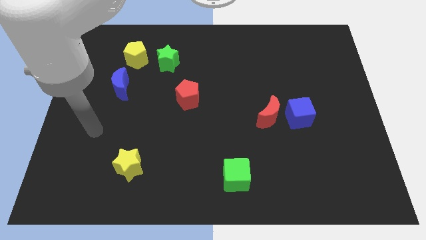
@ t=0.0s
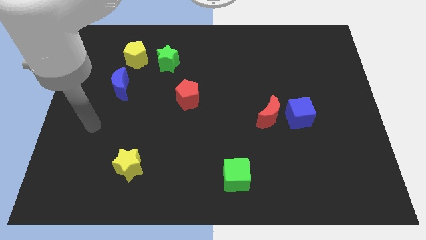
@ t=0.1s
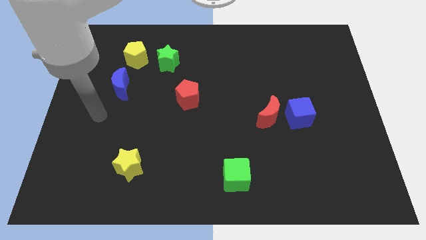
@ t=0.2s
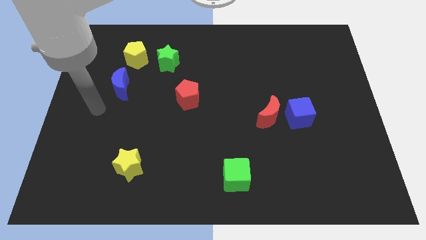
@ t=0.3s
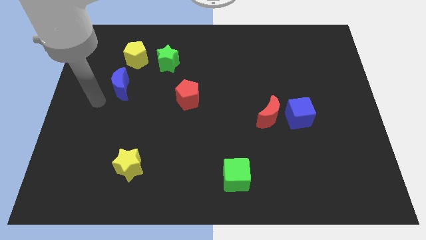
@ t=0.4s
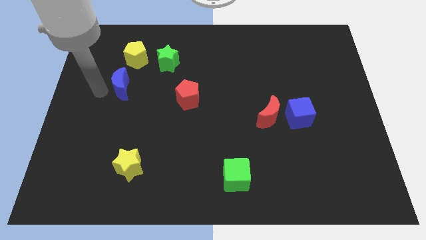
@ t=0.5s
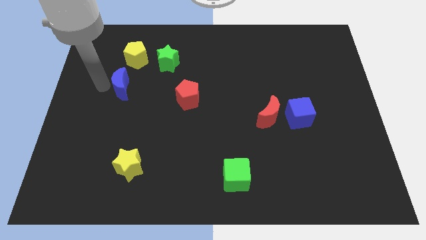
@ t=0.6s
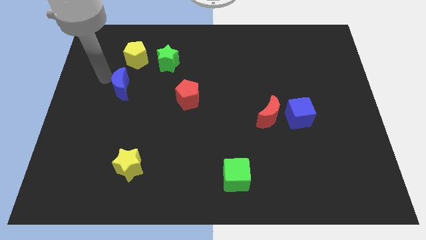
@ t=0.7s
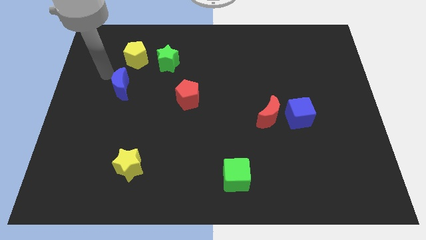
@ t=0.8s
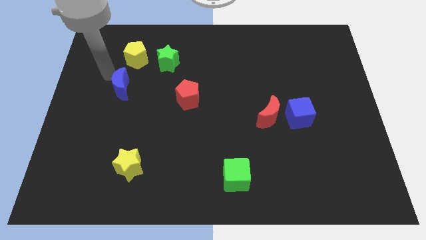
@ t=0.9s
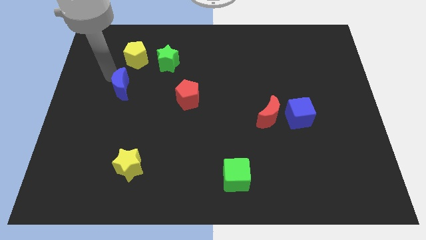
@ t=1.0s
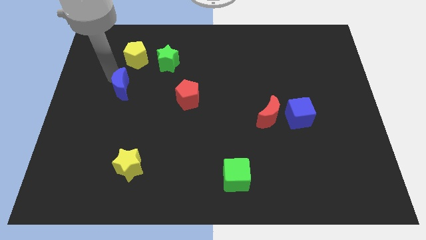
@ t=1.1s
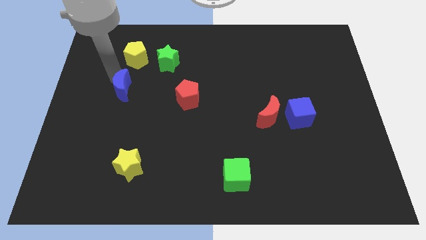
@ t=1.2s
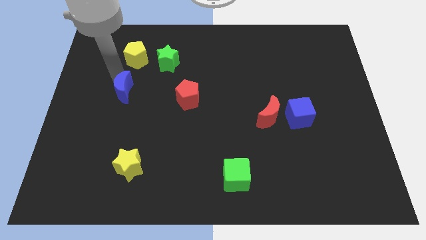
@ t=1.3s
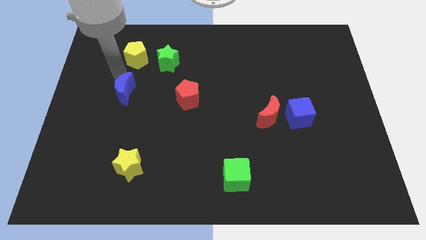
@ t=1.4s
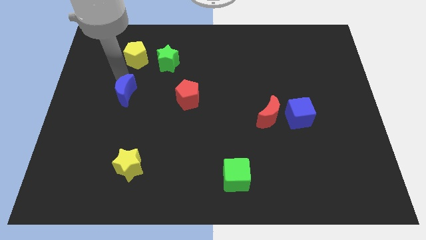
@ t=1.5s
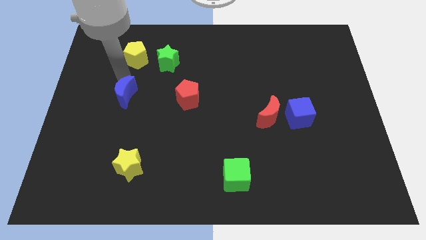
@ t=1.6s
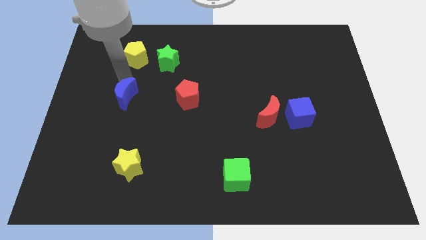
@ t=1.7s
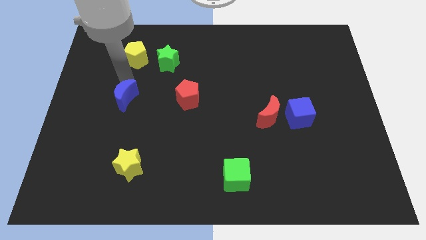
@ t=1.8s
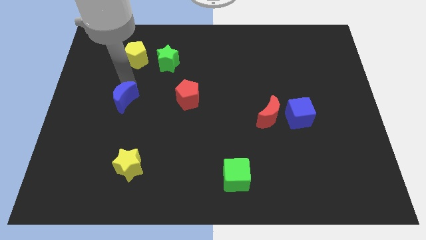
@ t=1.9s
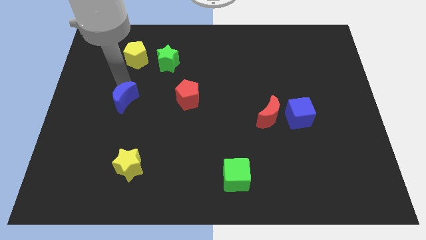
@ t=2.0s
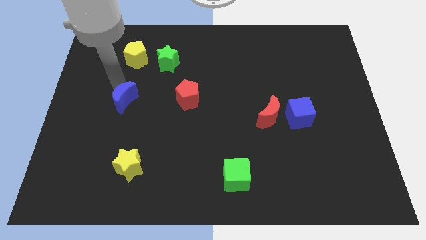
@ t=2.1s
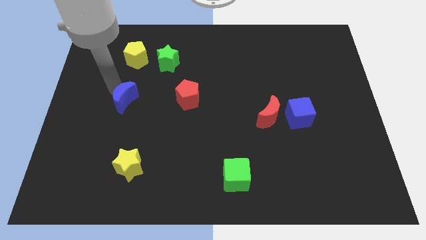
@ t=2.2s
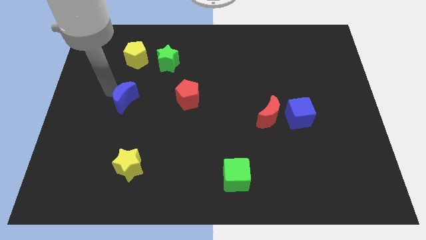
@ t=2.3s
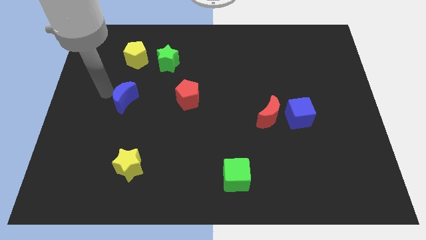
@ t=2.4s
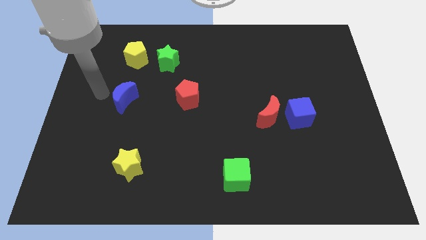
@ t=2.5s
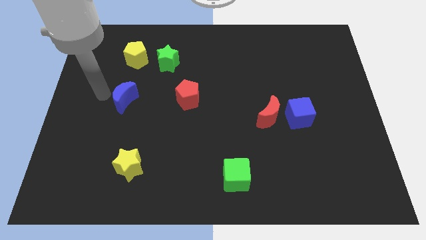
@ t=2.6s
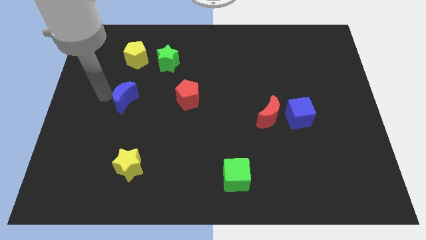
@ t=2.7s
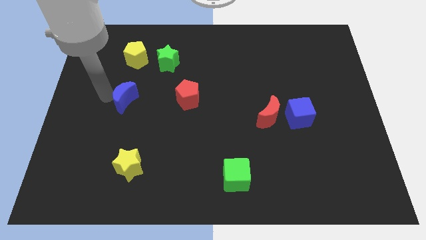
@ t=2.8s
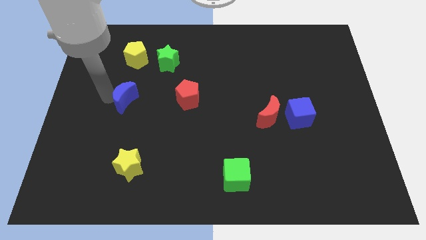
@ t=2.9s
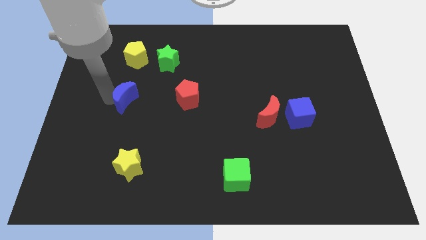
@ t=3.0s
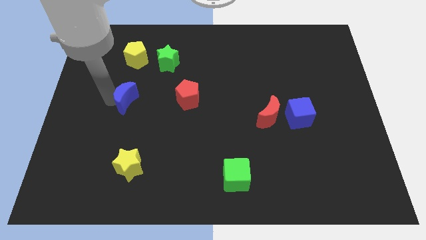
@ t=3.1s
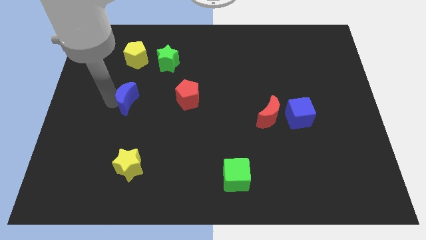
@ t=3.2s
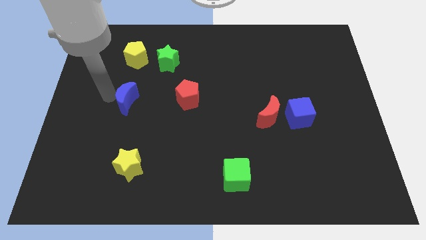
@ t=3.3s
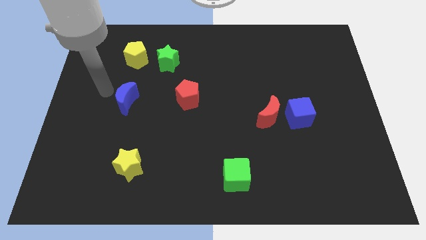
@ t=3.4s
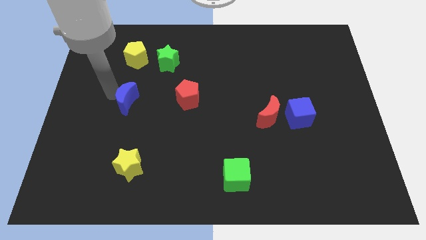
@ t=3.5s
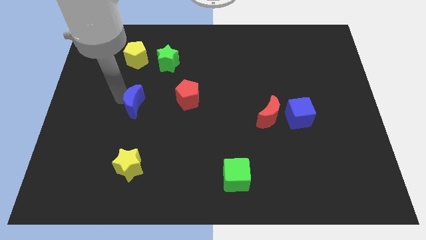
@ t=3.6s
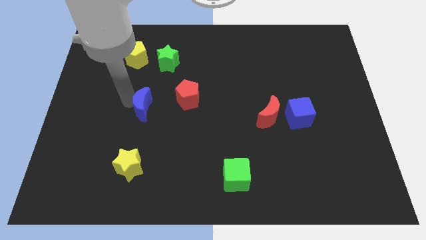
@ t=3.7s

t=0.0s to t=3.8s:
push the blue moon downwards and right a little bit

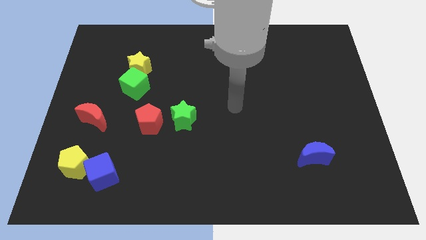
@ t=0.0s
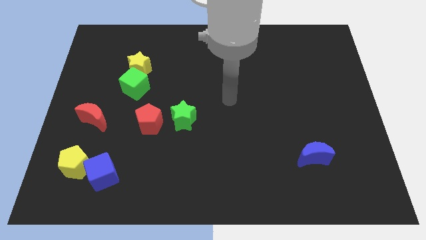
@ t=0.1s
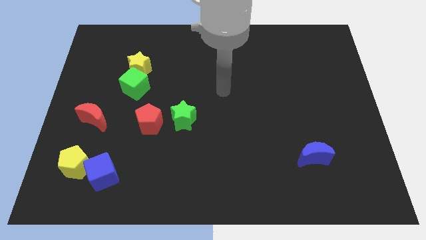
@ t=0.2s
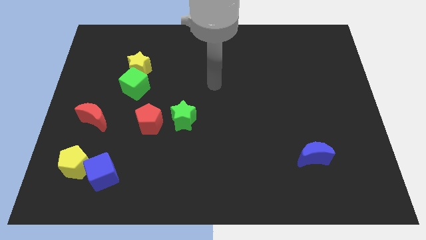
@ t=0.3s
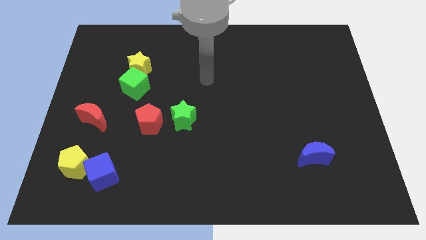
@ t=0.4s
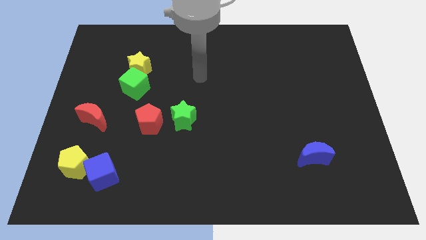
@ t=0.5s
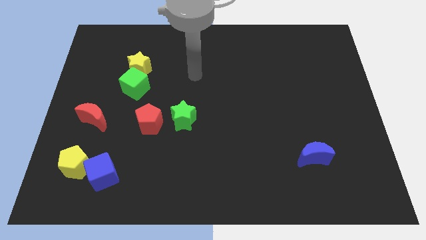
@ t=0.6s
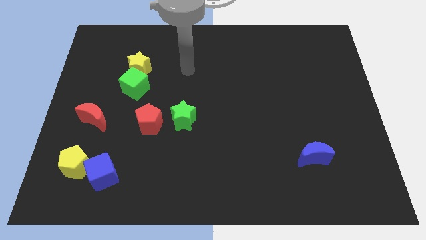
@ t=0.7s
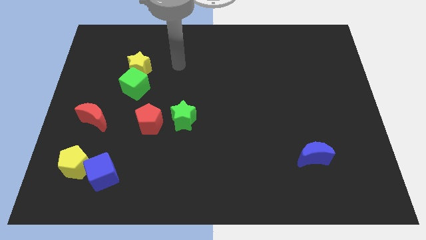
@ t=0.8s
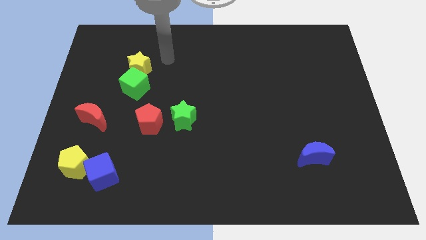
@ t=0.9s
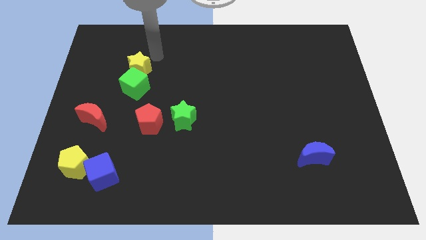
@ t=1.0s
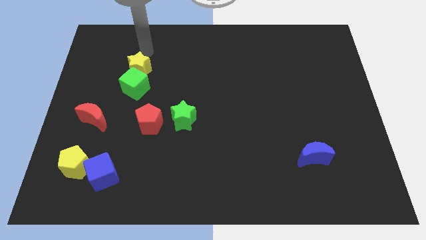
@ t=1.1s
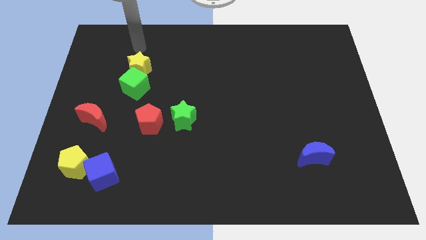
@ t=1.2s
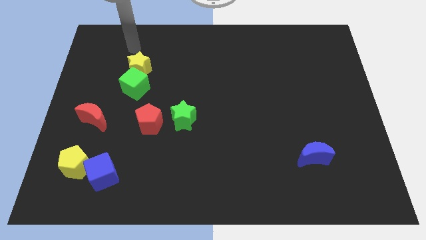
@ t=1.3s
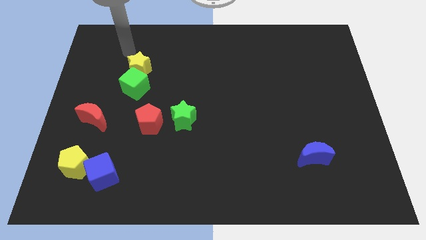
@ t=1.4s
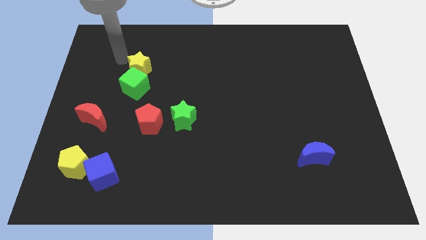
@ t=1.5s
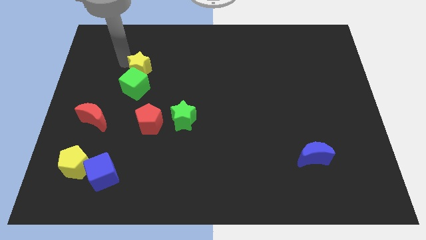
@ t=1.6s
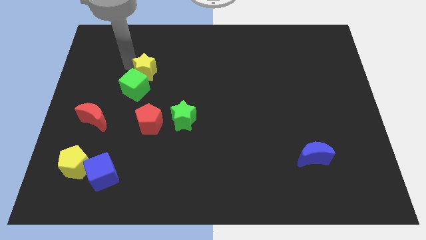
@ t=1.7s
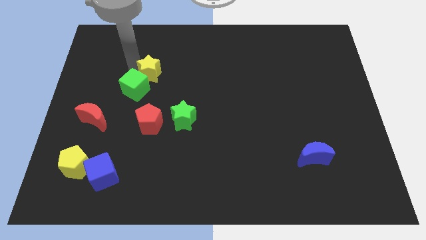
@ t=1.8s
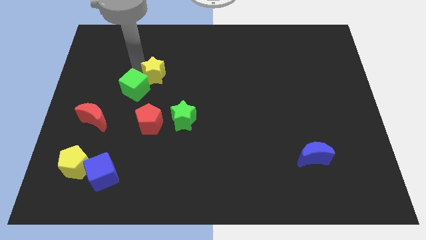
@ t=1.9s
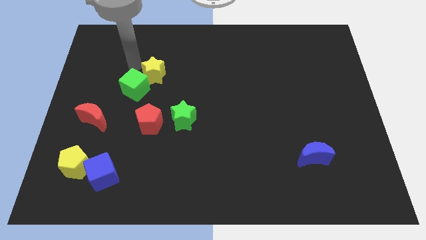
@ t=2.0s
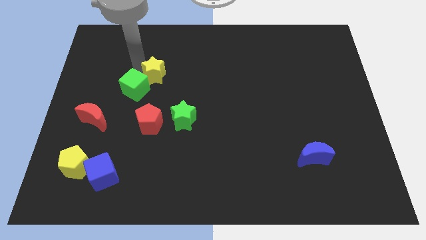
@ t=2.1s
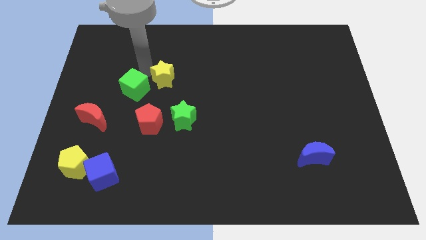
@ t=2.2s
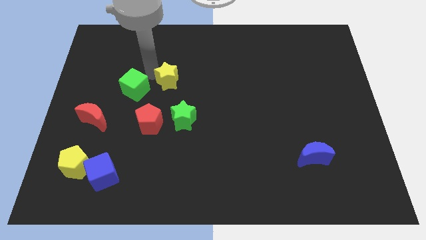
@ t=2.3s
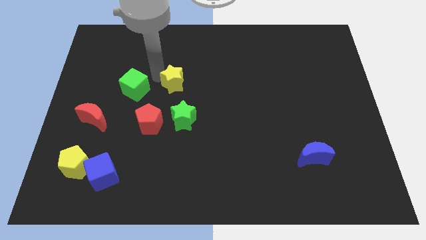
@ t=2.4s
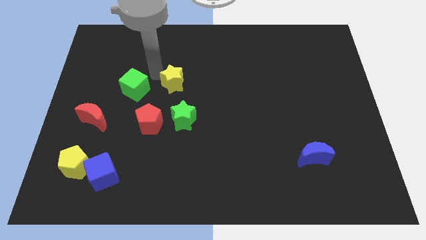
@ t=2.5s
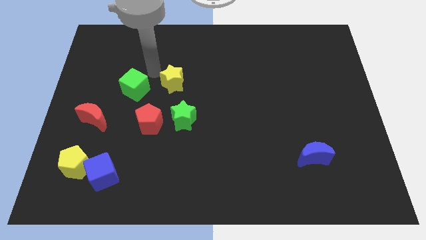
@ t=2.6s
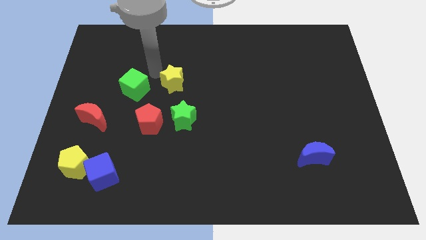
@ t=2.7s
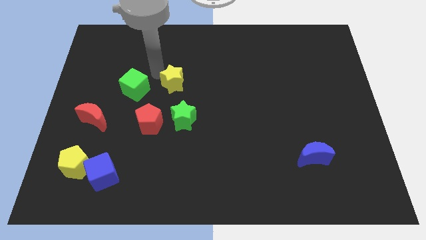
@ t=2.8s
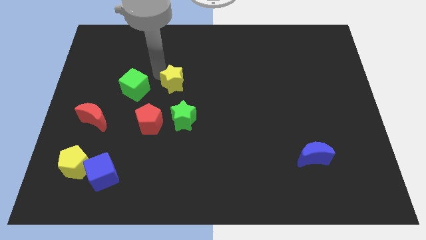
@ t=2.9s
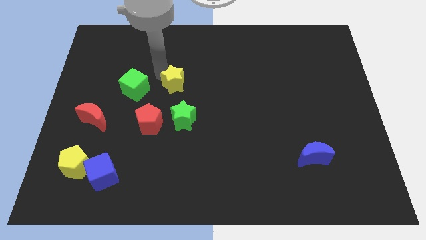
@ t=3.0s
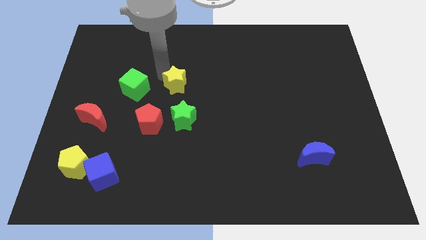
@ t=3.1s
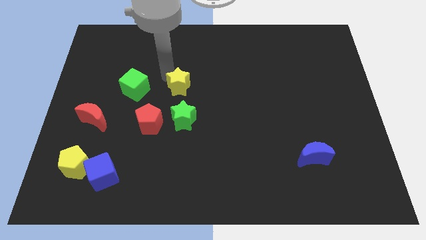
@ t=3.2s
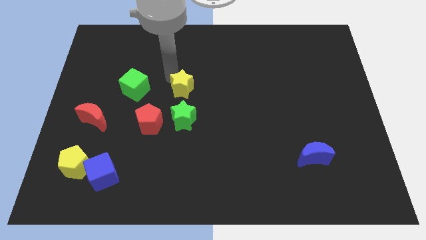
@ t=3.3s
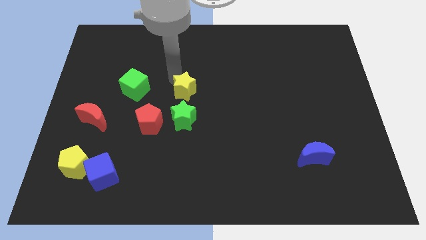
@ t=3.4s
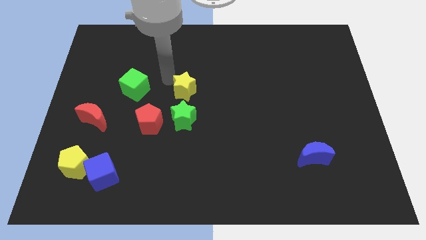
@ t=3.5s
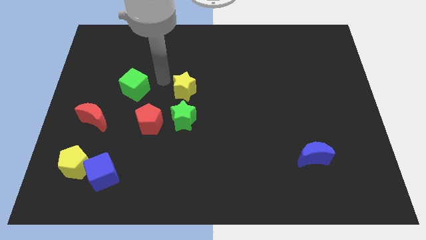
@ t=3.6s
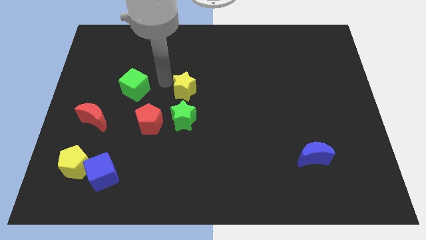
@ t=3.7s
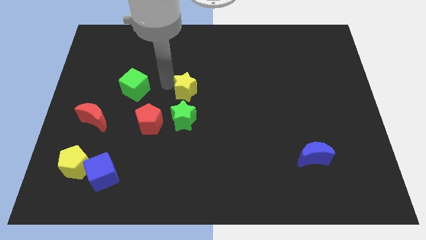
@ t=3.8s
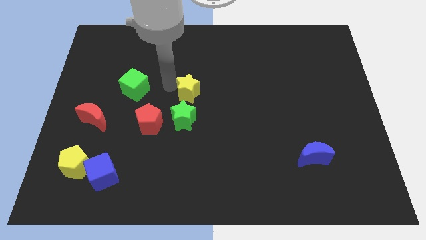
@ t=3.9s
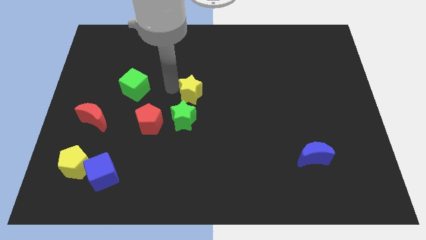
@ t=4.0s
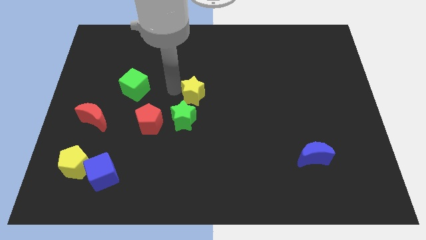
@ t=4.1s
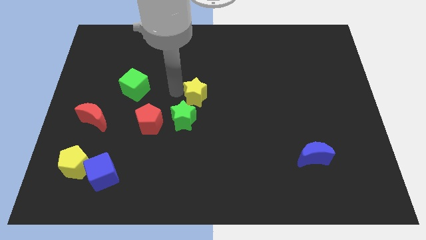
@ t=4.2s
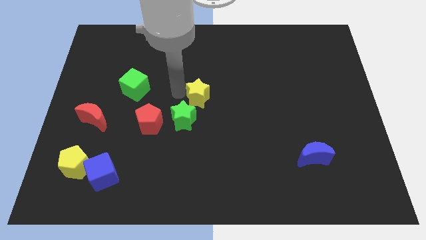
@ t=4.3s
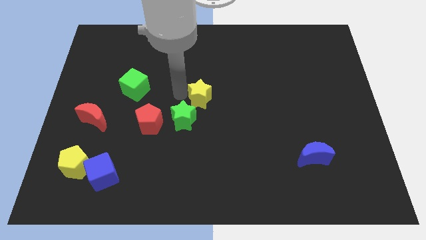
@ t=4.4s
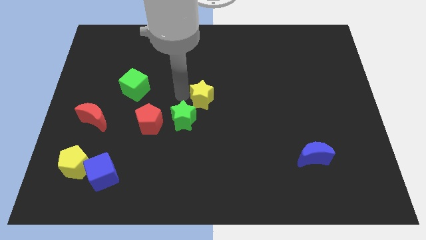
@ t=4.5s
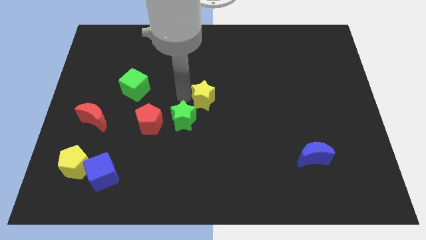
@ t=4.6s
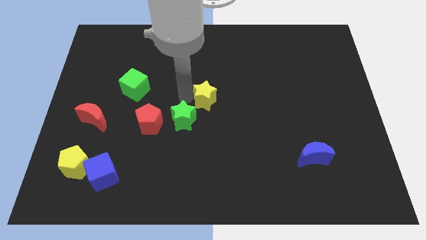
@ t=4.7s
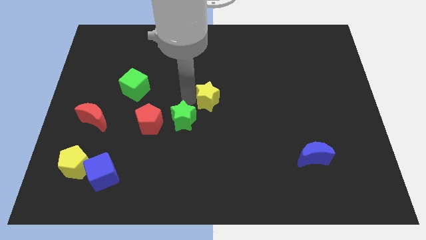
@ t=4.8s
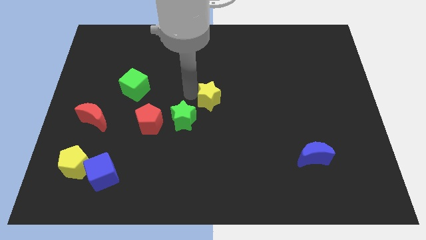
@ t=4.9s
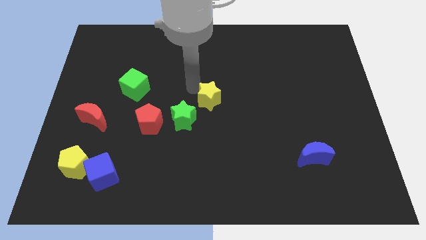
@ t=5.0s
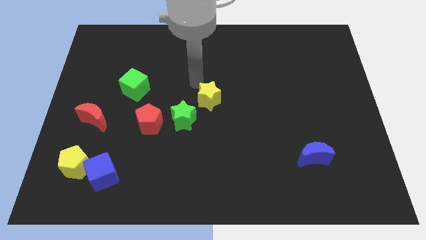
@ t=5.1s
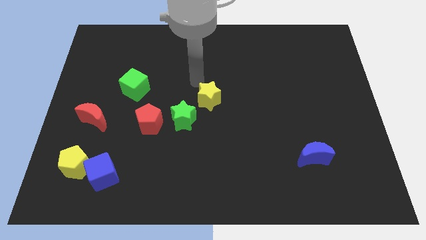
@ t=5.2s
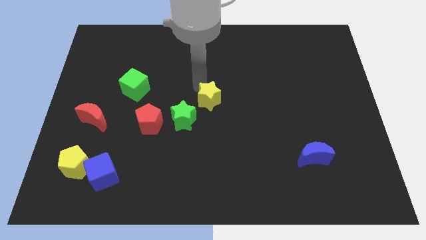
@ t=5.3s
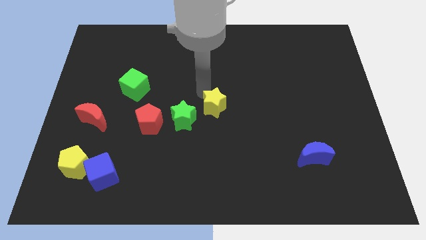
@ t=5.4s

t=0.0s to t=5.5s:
push the yellow star downwards and then right
